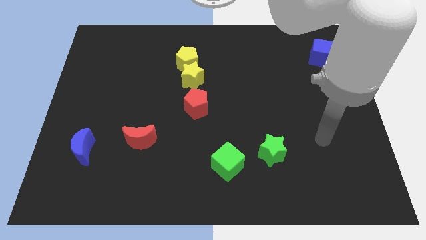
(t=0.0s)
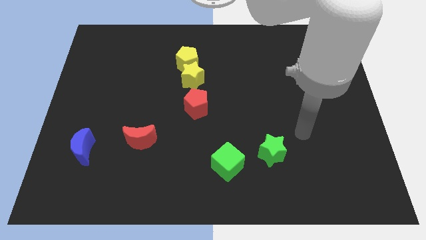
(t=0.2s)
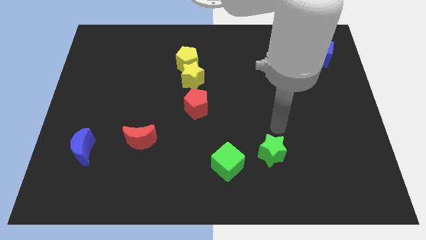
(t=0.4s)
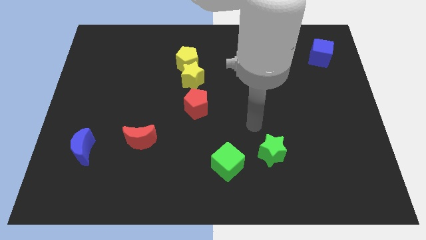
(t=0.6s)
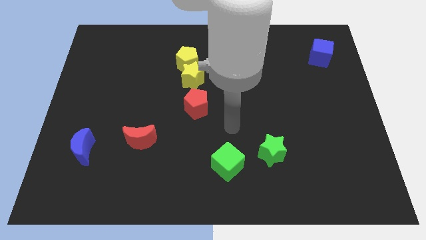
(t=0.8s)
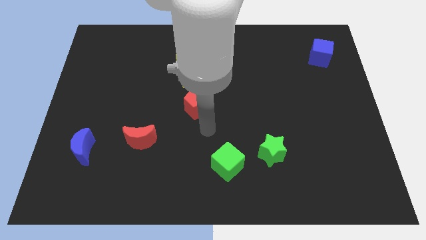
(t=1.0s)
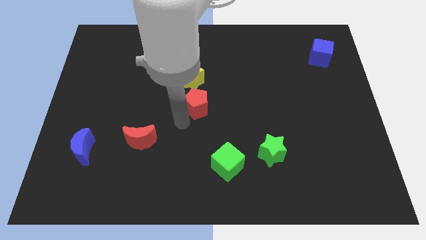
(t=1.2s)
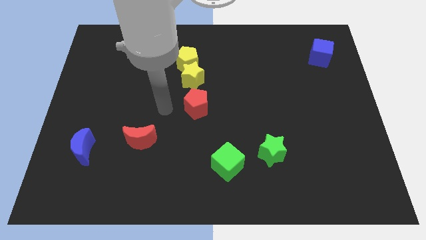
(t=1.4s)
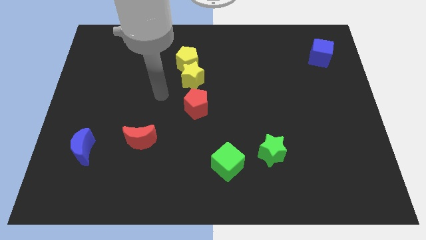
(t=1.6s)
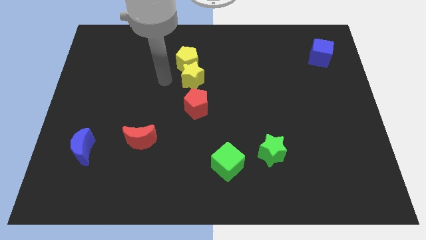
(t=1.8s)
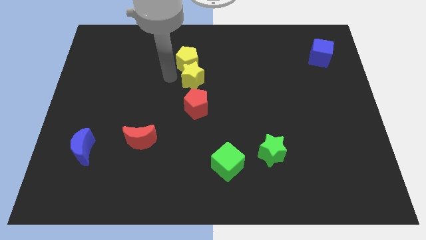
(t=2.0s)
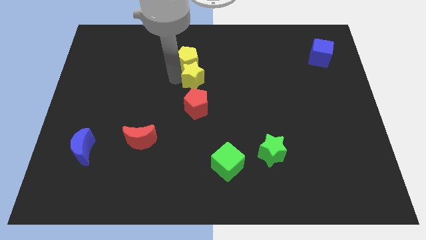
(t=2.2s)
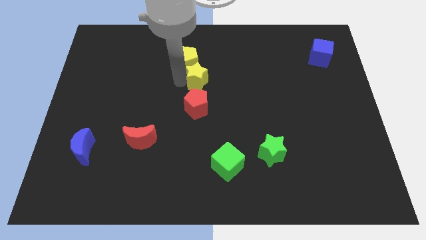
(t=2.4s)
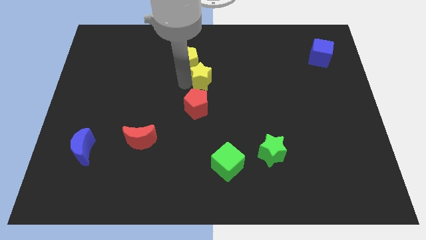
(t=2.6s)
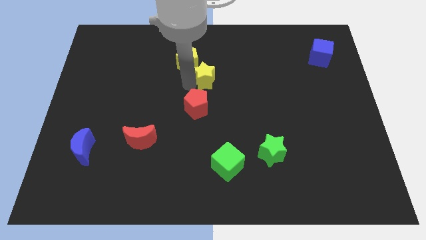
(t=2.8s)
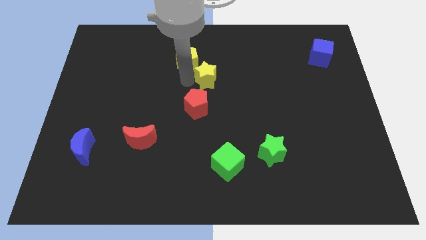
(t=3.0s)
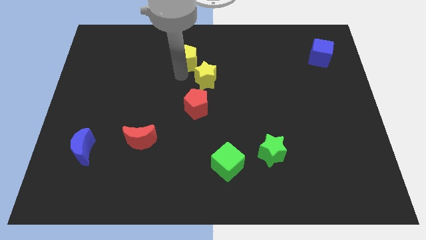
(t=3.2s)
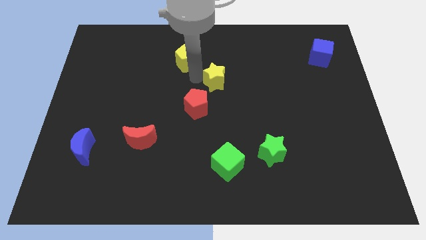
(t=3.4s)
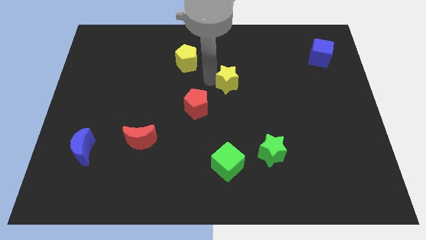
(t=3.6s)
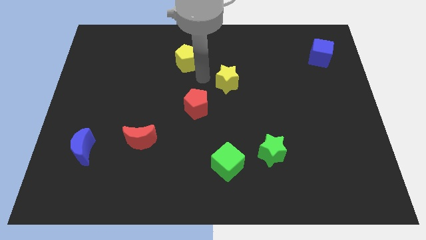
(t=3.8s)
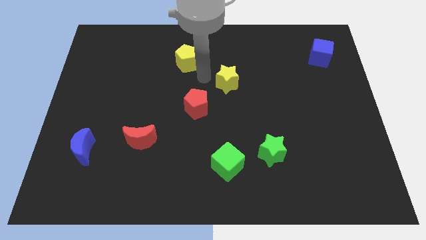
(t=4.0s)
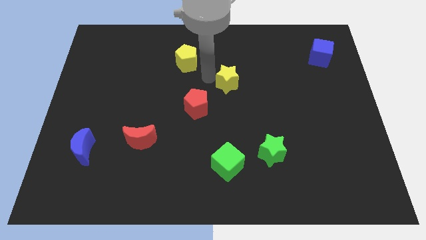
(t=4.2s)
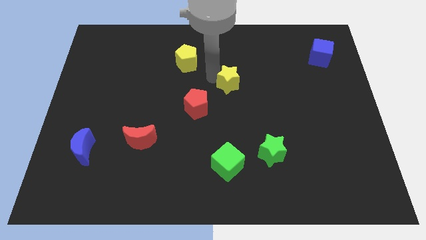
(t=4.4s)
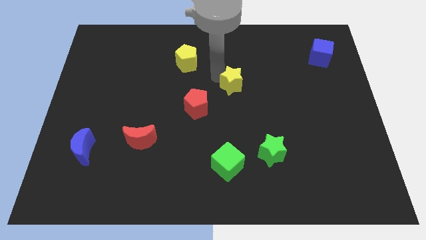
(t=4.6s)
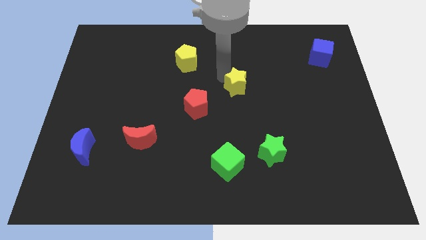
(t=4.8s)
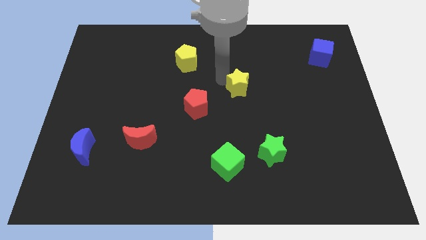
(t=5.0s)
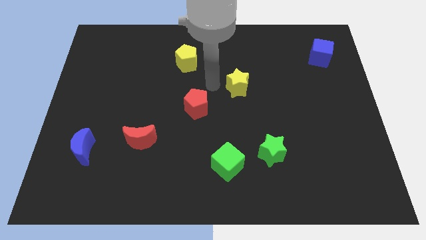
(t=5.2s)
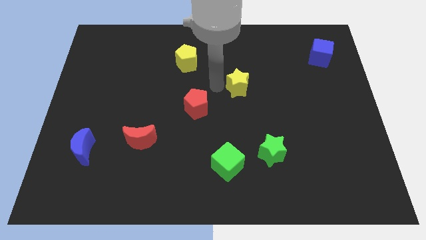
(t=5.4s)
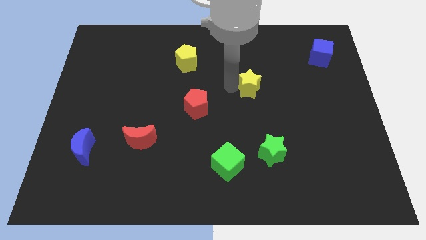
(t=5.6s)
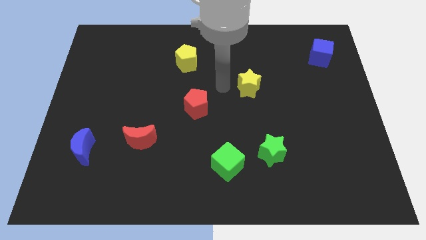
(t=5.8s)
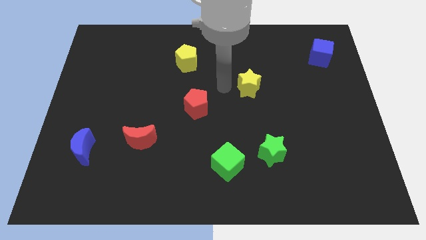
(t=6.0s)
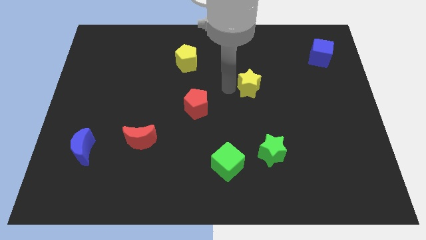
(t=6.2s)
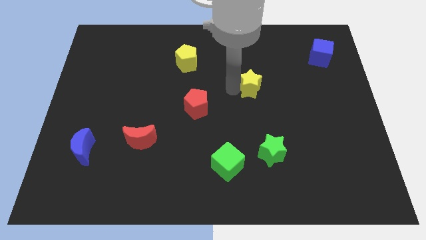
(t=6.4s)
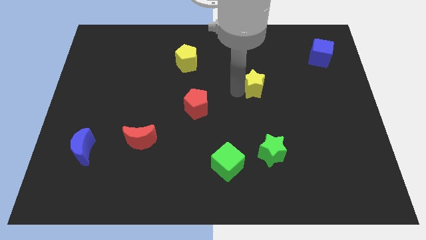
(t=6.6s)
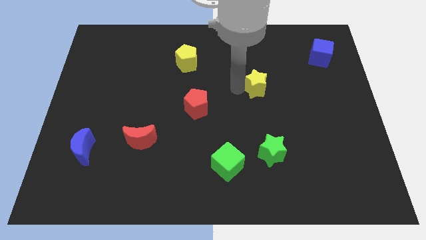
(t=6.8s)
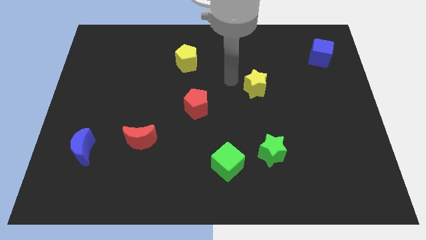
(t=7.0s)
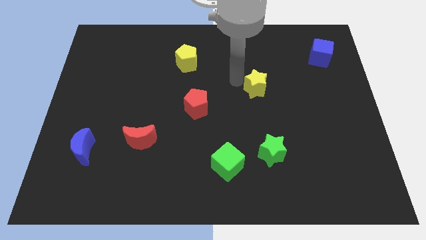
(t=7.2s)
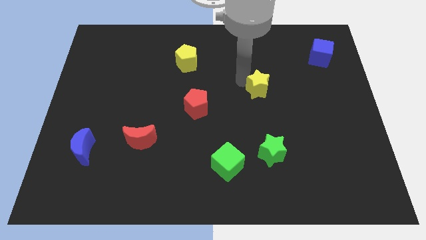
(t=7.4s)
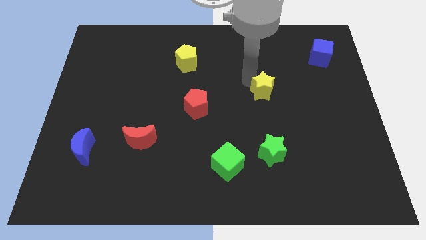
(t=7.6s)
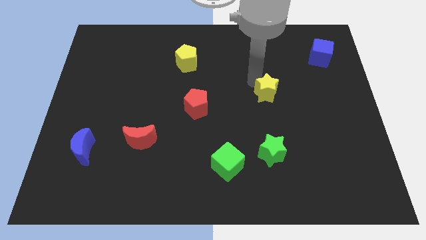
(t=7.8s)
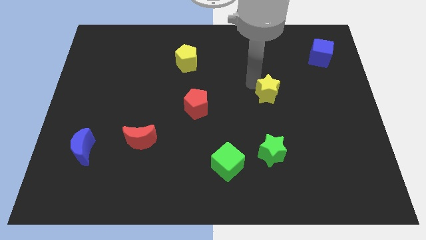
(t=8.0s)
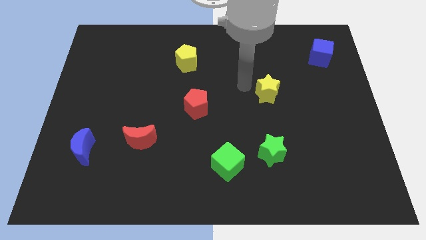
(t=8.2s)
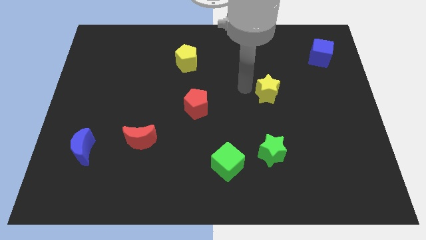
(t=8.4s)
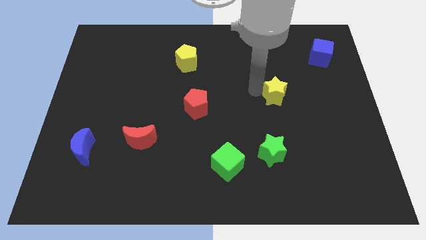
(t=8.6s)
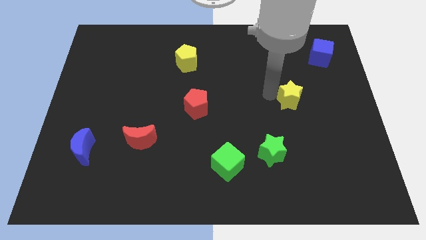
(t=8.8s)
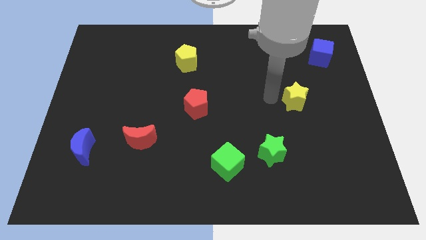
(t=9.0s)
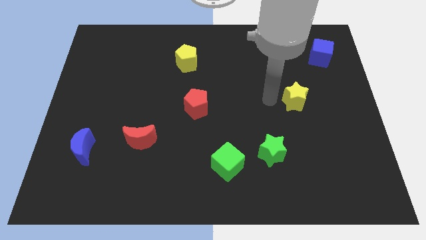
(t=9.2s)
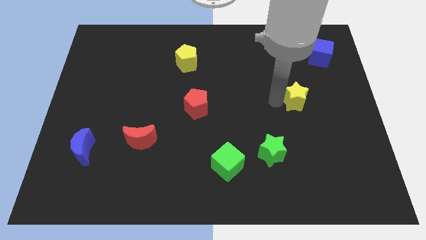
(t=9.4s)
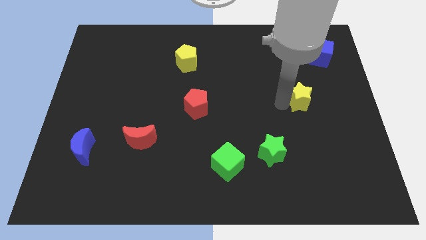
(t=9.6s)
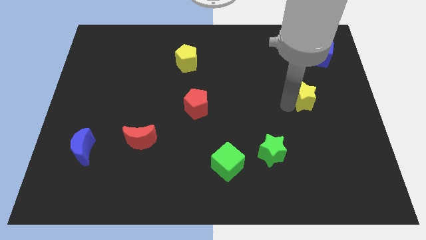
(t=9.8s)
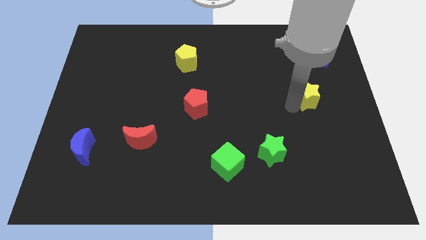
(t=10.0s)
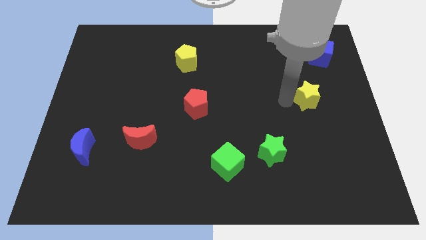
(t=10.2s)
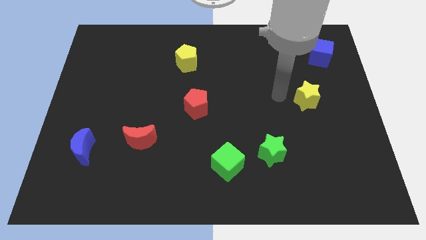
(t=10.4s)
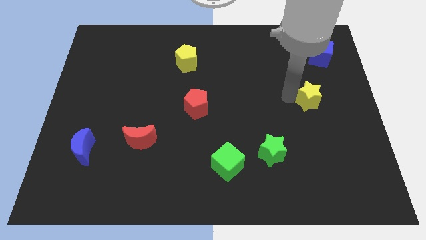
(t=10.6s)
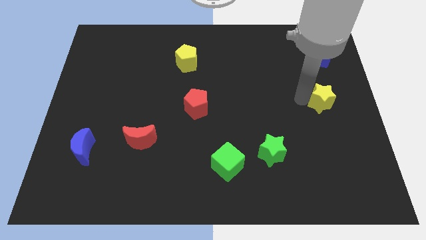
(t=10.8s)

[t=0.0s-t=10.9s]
move the yellow star to the right side
